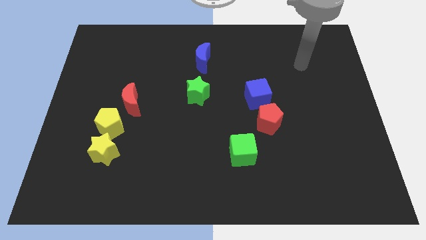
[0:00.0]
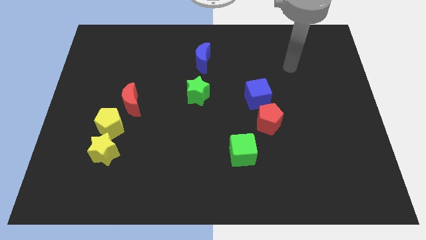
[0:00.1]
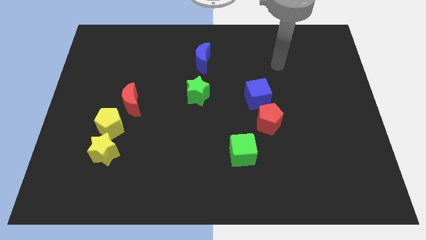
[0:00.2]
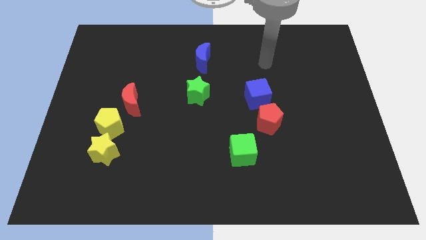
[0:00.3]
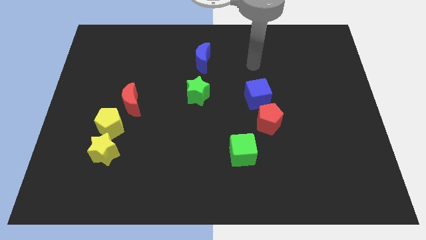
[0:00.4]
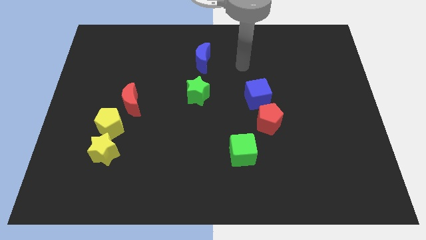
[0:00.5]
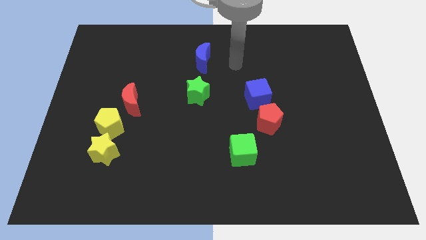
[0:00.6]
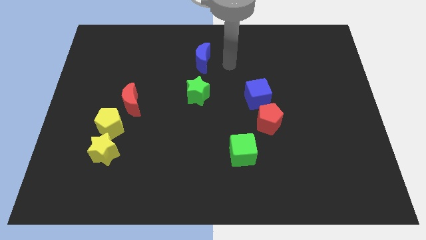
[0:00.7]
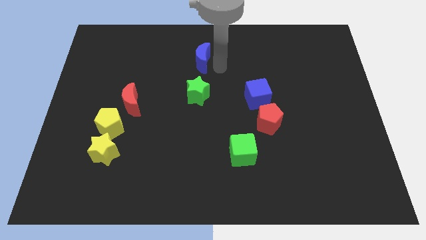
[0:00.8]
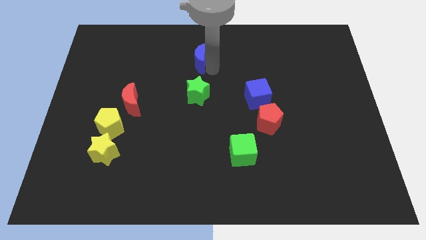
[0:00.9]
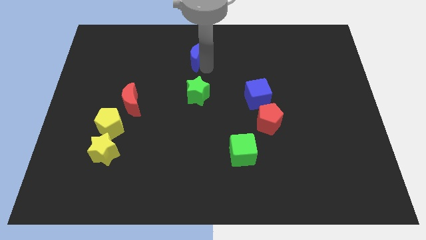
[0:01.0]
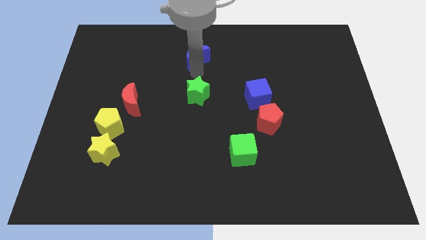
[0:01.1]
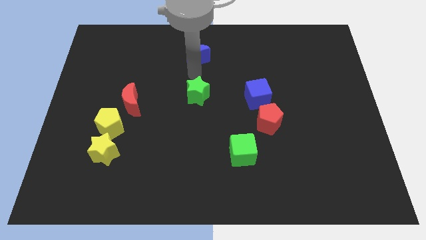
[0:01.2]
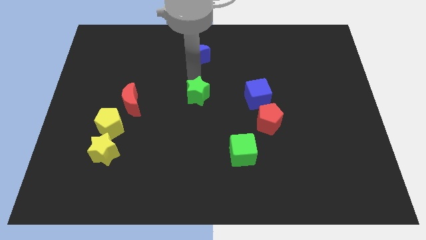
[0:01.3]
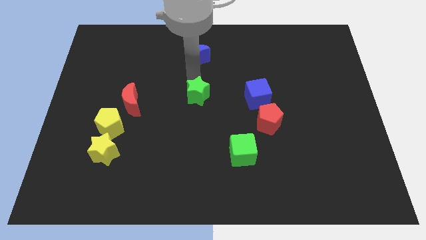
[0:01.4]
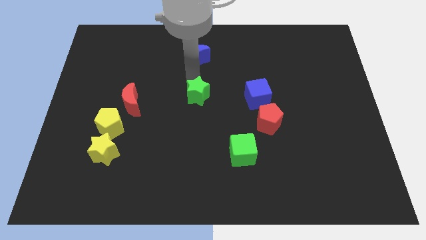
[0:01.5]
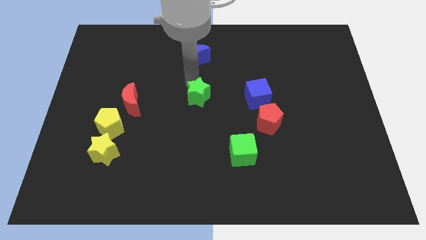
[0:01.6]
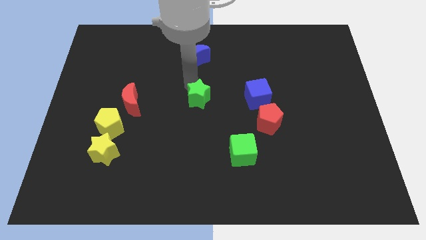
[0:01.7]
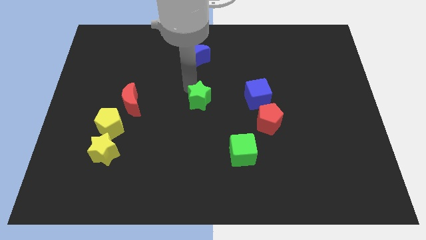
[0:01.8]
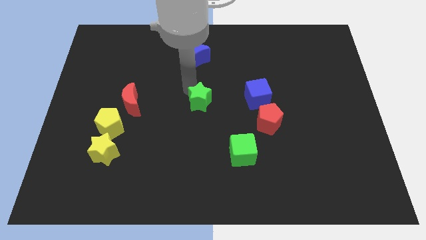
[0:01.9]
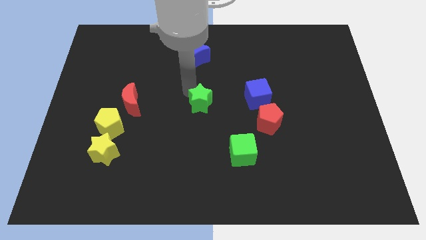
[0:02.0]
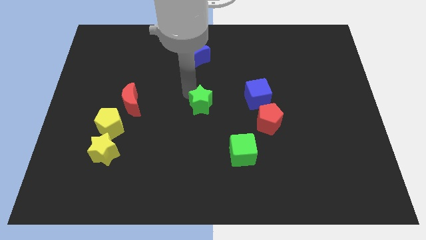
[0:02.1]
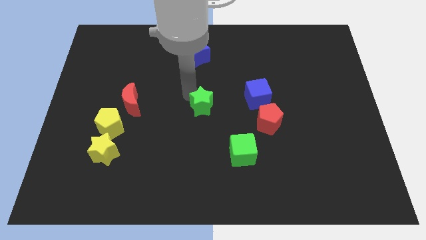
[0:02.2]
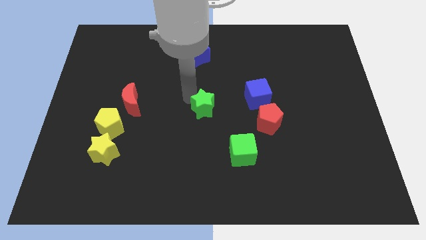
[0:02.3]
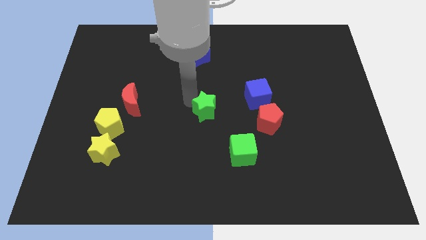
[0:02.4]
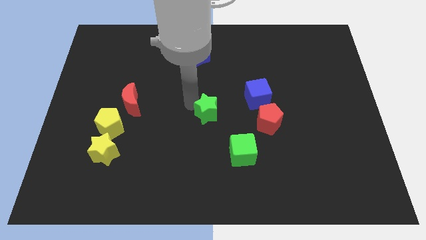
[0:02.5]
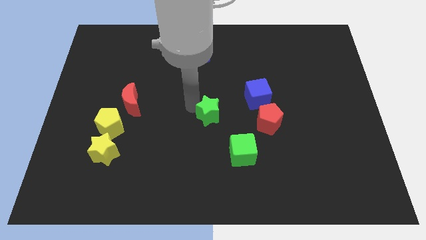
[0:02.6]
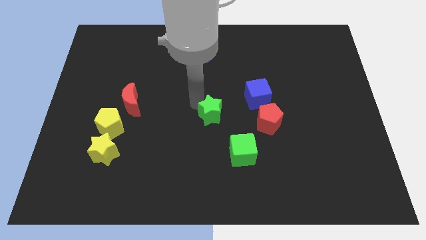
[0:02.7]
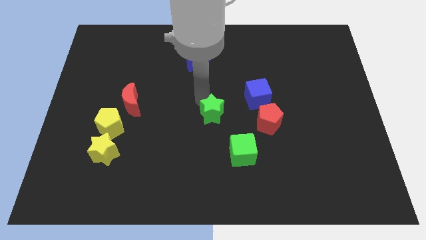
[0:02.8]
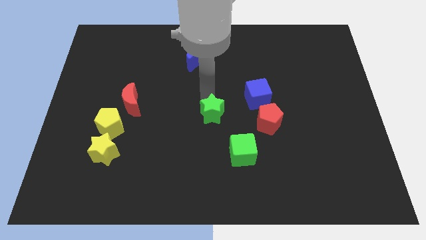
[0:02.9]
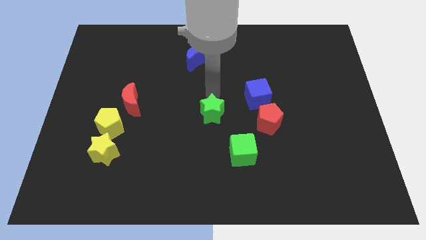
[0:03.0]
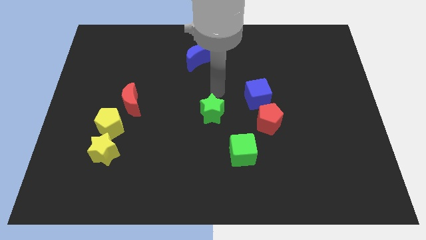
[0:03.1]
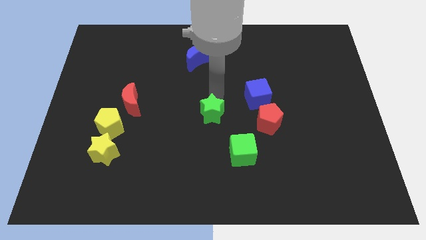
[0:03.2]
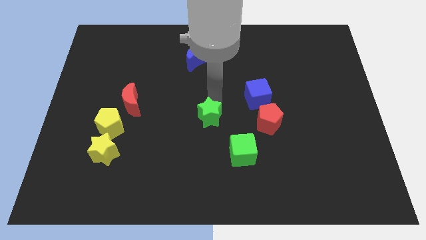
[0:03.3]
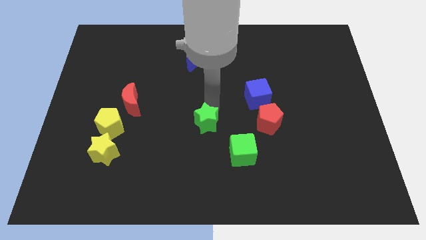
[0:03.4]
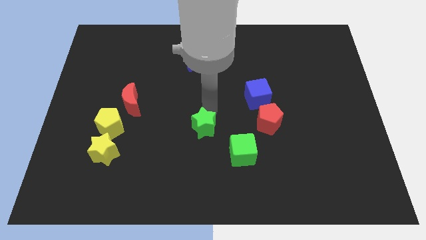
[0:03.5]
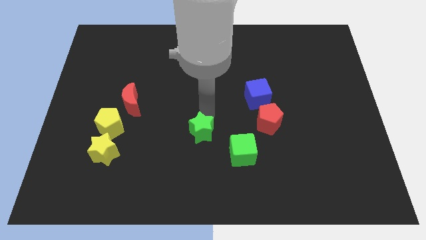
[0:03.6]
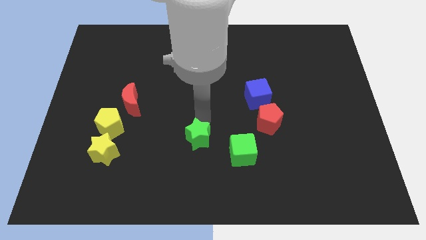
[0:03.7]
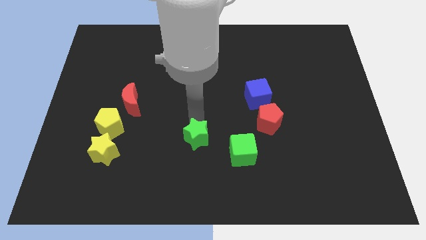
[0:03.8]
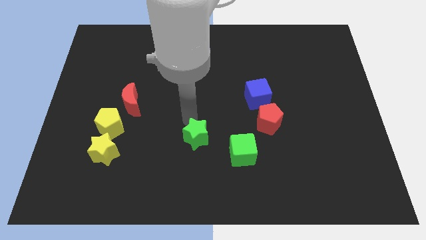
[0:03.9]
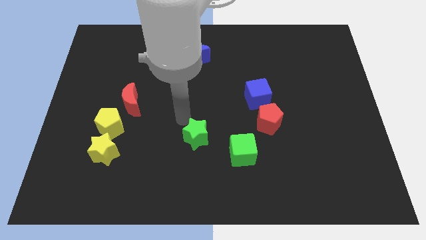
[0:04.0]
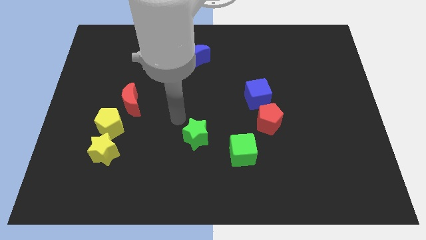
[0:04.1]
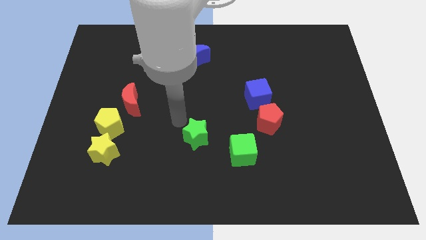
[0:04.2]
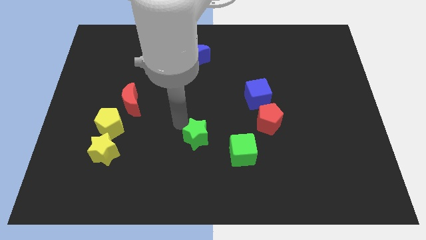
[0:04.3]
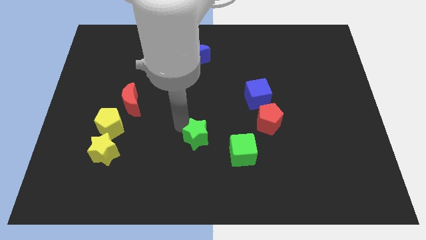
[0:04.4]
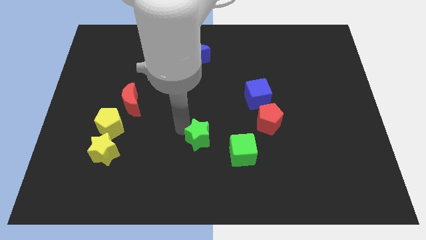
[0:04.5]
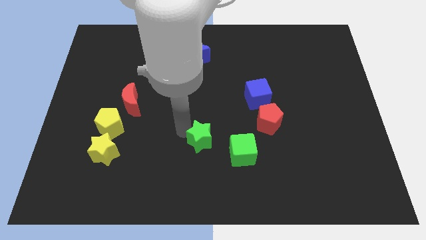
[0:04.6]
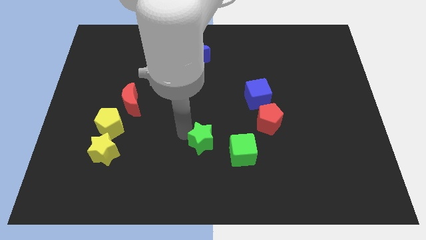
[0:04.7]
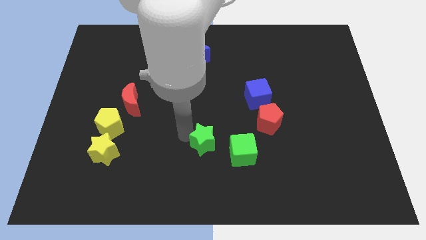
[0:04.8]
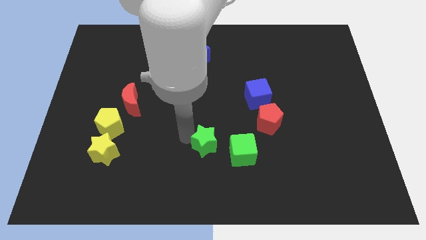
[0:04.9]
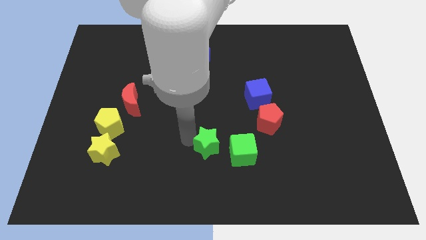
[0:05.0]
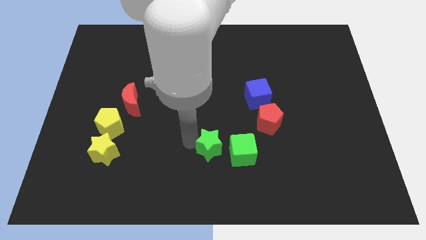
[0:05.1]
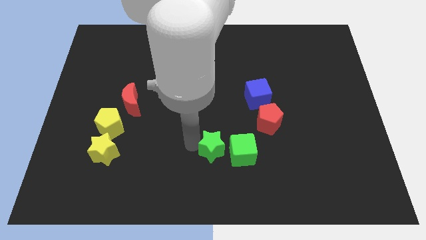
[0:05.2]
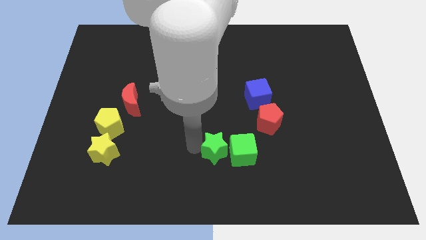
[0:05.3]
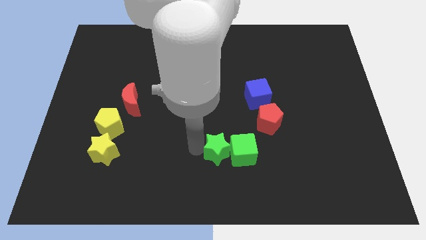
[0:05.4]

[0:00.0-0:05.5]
move the green star to the bottom side

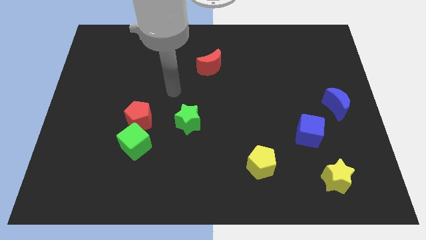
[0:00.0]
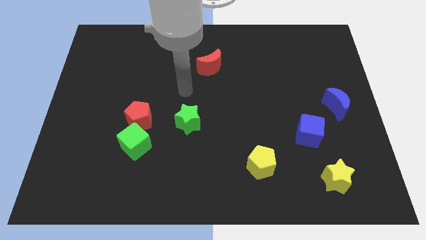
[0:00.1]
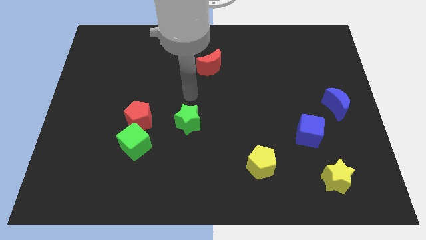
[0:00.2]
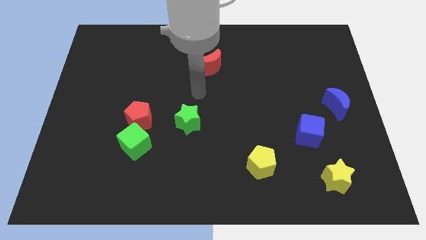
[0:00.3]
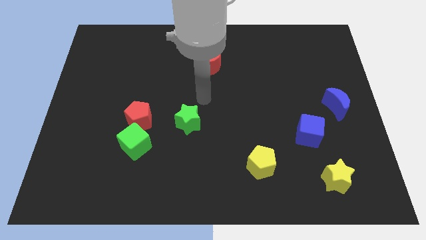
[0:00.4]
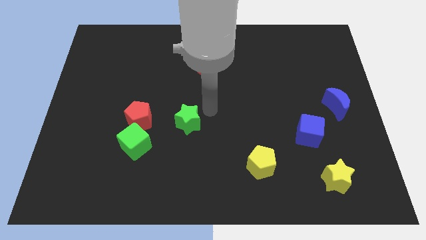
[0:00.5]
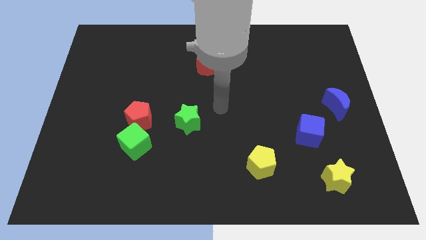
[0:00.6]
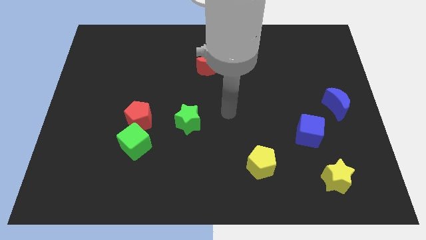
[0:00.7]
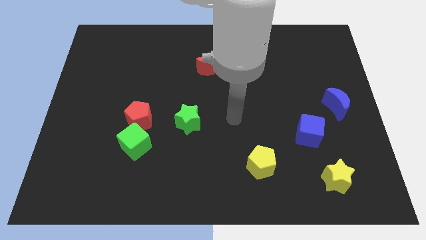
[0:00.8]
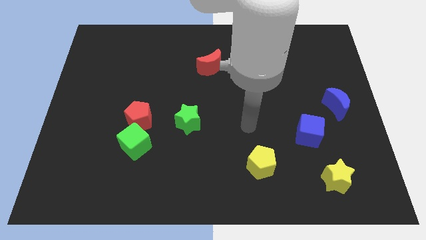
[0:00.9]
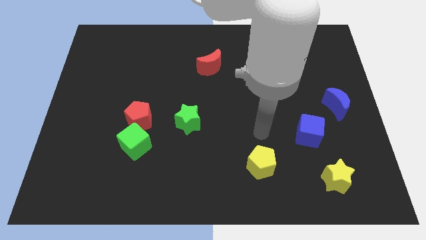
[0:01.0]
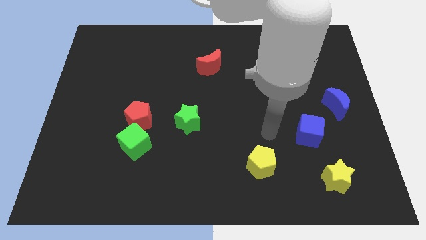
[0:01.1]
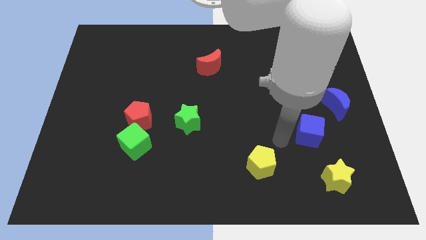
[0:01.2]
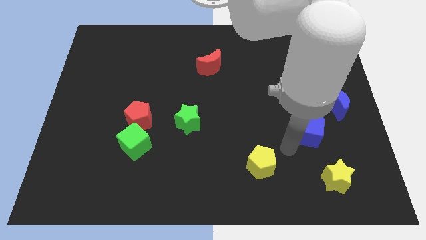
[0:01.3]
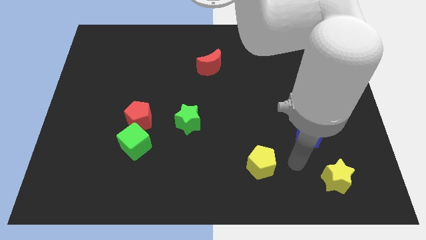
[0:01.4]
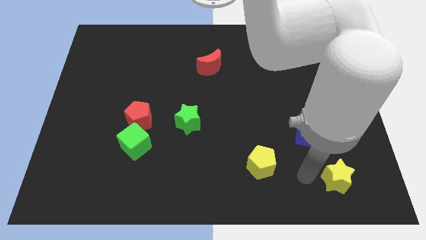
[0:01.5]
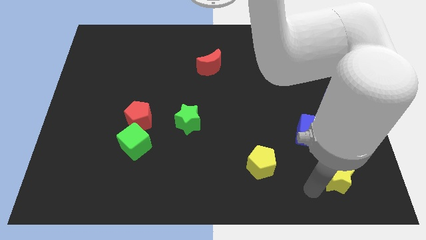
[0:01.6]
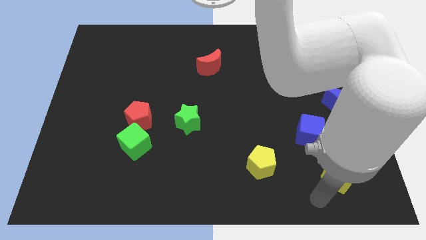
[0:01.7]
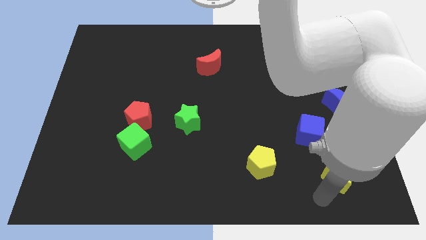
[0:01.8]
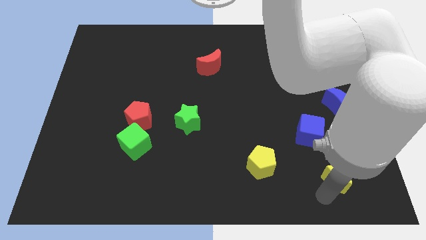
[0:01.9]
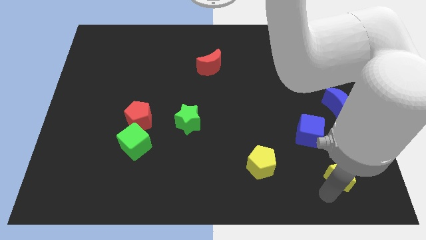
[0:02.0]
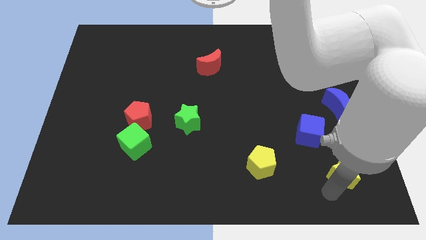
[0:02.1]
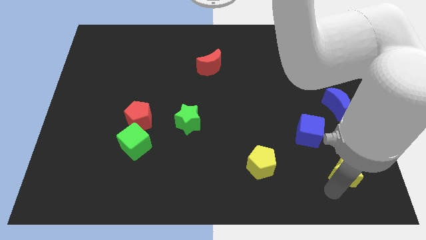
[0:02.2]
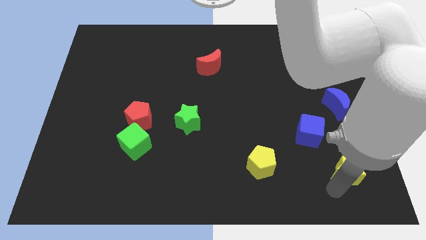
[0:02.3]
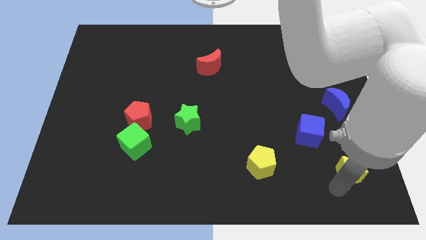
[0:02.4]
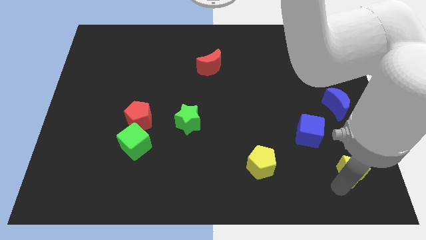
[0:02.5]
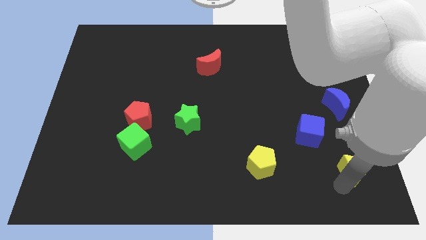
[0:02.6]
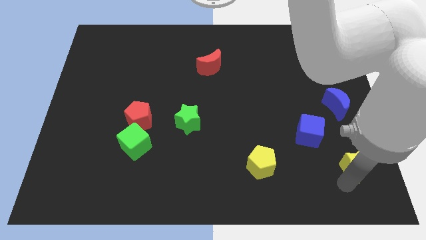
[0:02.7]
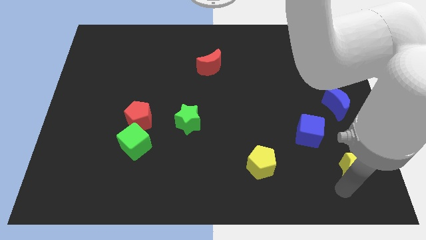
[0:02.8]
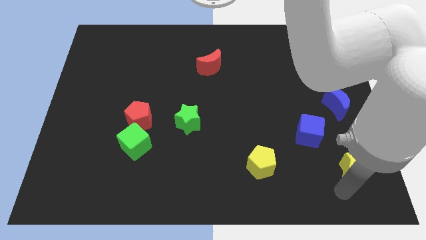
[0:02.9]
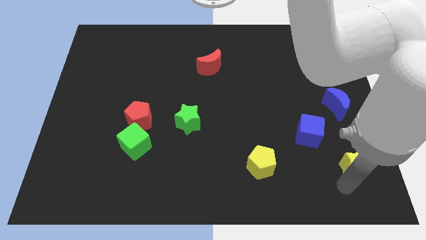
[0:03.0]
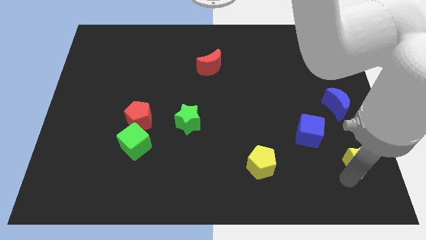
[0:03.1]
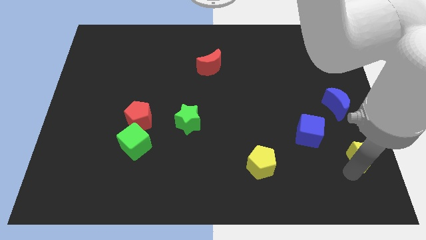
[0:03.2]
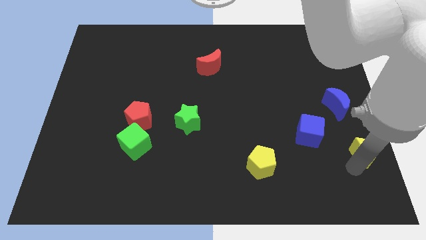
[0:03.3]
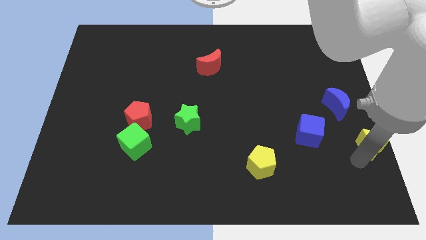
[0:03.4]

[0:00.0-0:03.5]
slide the yellow star to the center right
